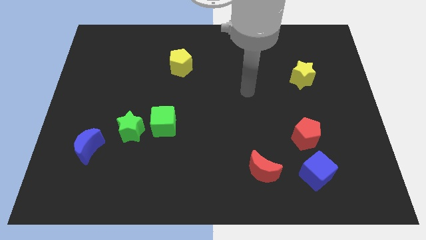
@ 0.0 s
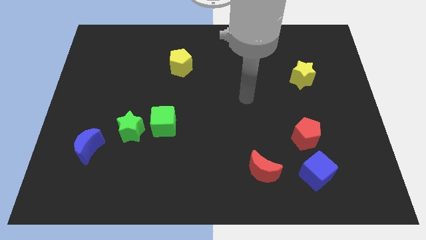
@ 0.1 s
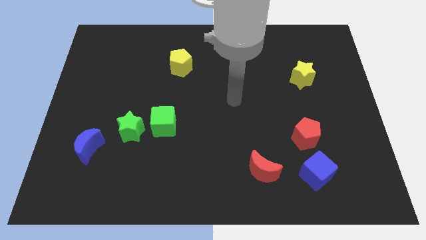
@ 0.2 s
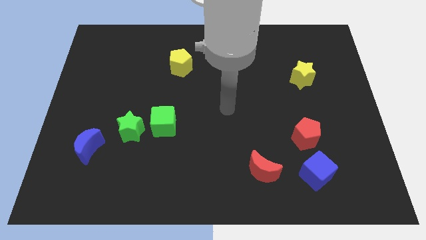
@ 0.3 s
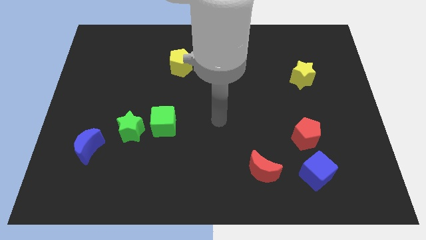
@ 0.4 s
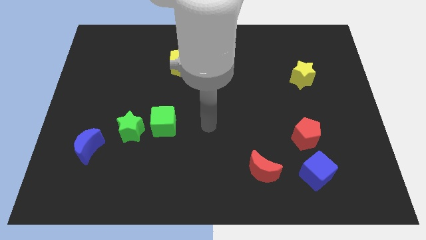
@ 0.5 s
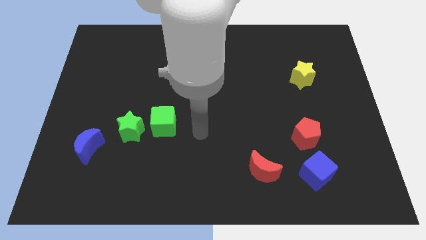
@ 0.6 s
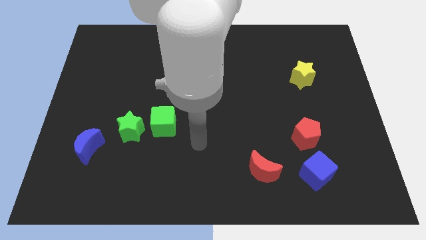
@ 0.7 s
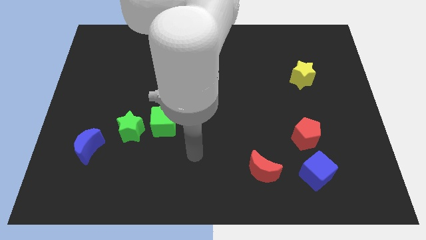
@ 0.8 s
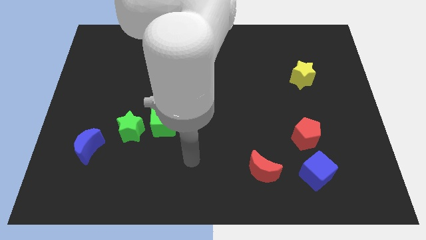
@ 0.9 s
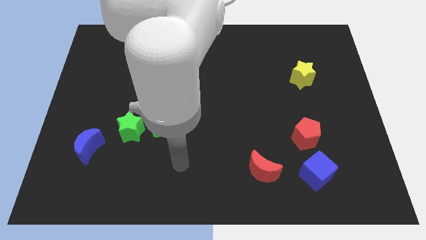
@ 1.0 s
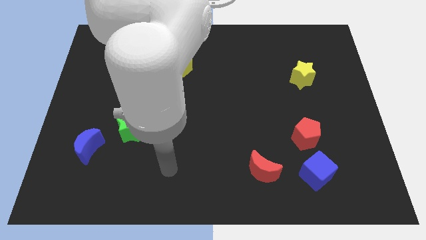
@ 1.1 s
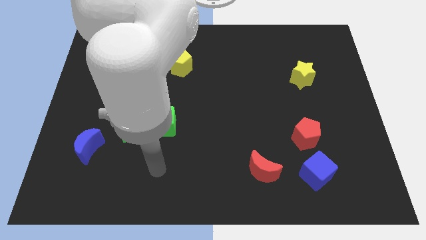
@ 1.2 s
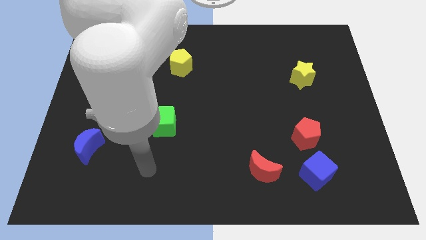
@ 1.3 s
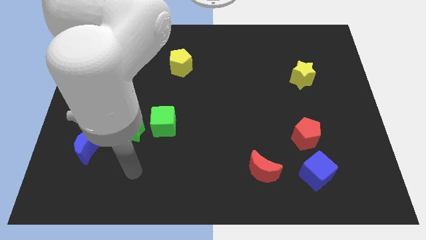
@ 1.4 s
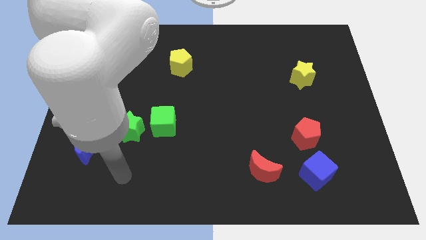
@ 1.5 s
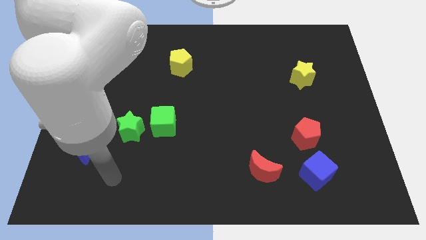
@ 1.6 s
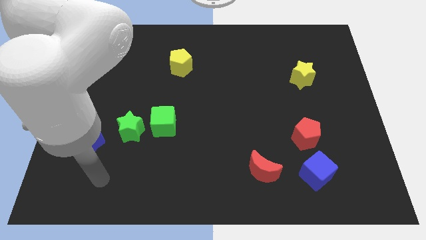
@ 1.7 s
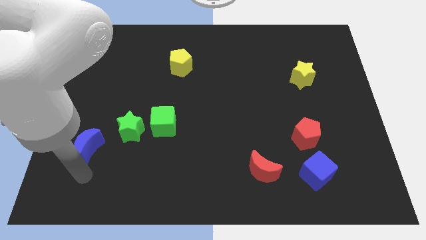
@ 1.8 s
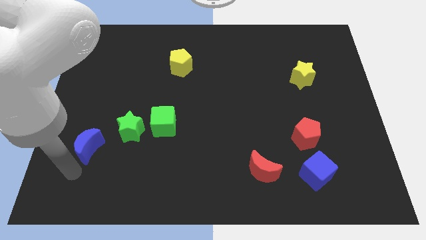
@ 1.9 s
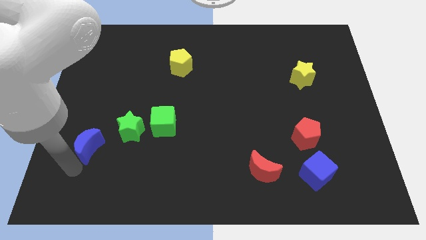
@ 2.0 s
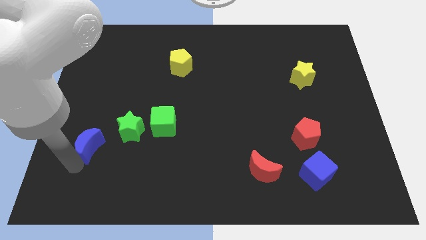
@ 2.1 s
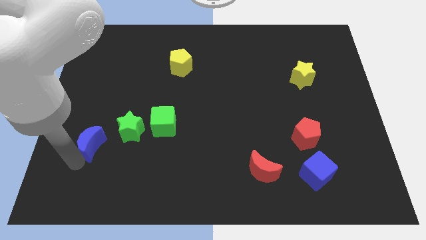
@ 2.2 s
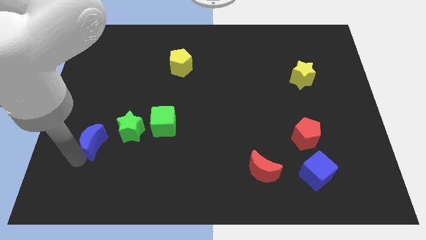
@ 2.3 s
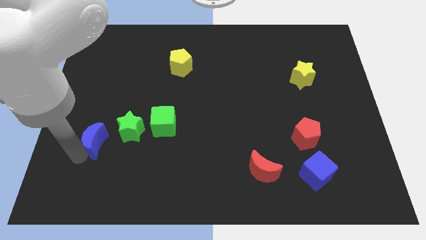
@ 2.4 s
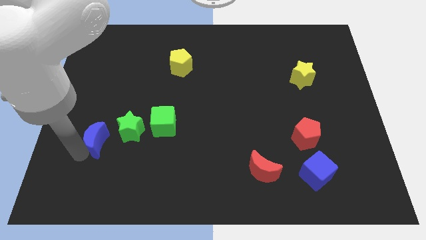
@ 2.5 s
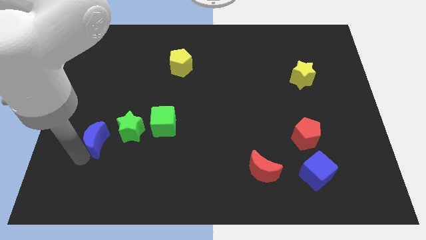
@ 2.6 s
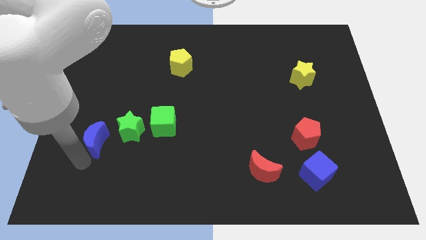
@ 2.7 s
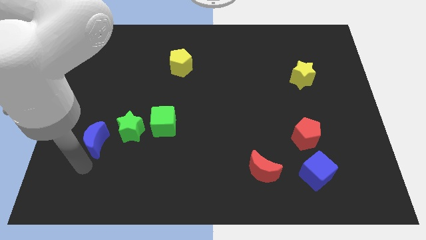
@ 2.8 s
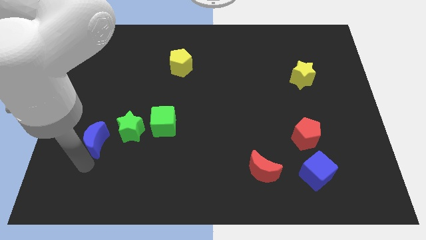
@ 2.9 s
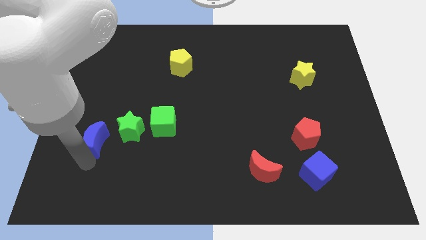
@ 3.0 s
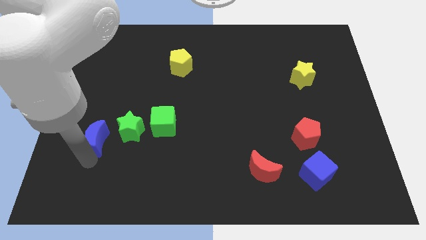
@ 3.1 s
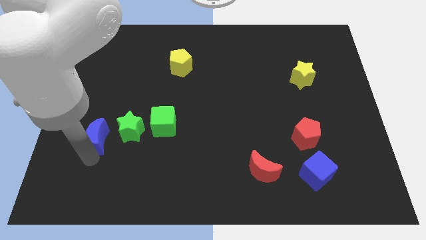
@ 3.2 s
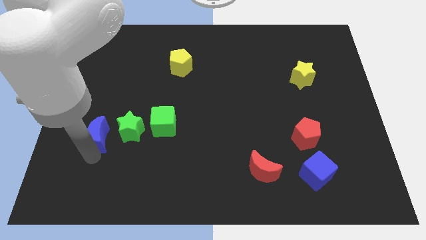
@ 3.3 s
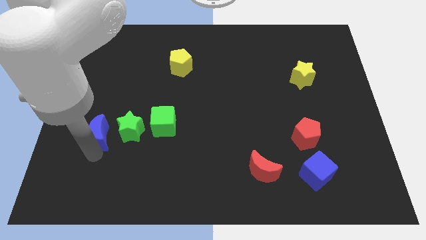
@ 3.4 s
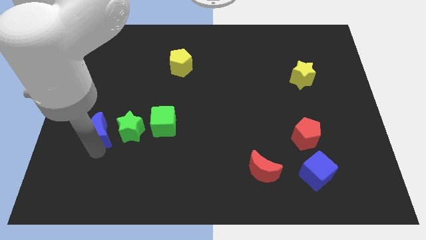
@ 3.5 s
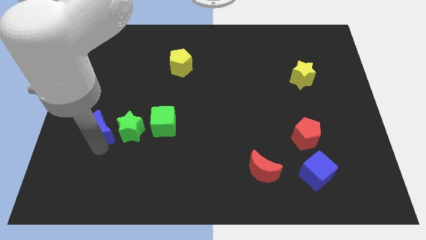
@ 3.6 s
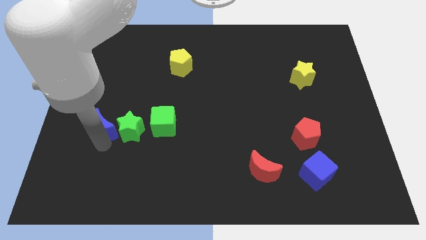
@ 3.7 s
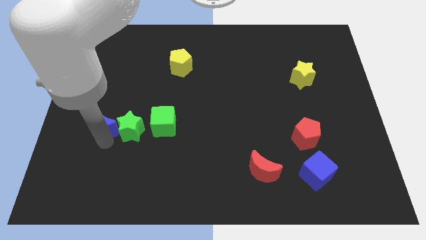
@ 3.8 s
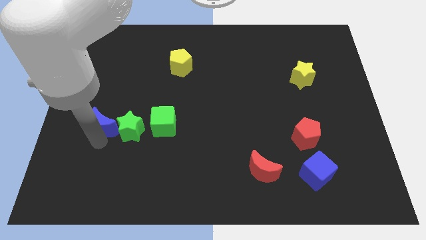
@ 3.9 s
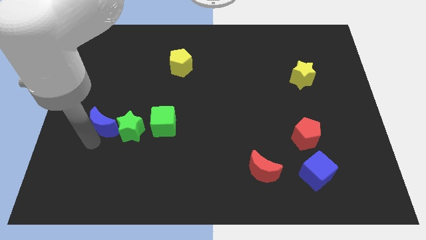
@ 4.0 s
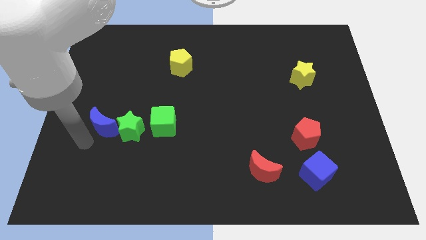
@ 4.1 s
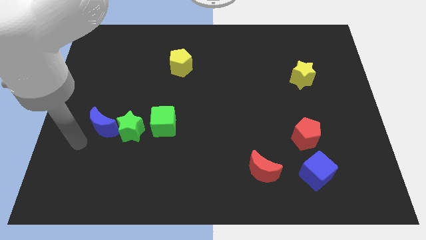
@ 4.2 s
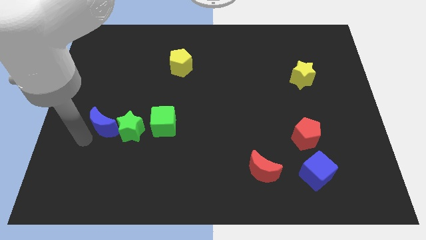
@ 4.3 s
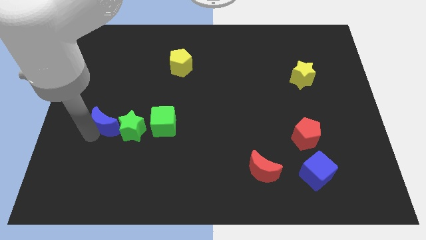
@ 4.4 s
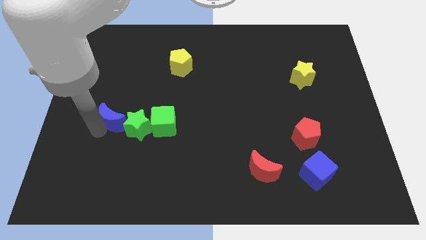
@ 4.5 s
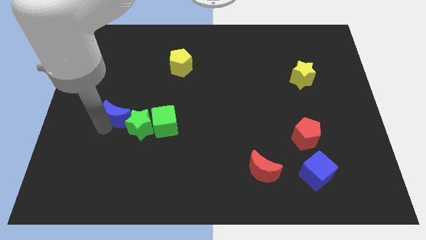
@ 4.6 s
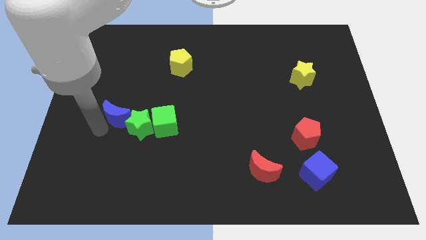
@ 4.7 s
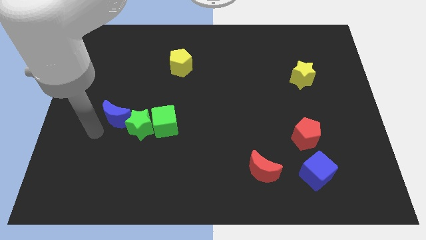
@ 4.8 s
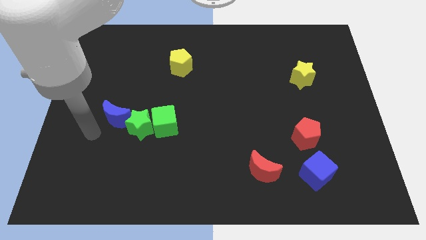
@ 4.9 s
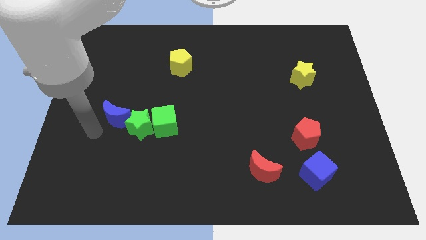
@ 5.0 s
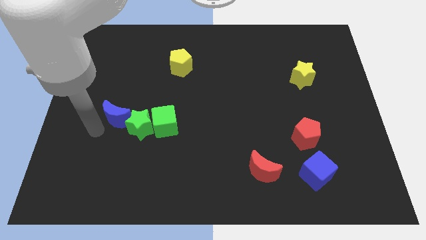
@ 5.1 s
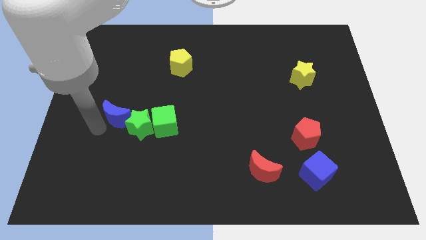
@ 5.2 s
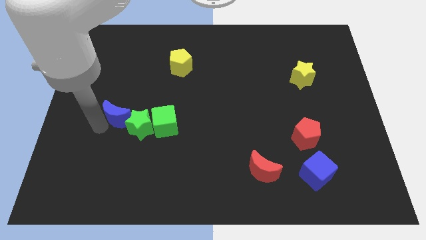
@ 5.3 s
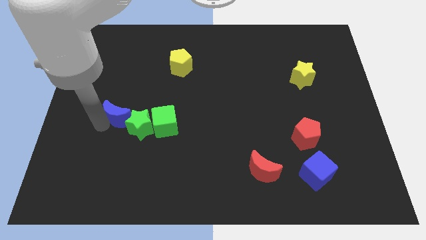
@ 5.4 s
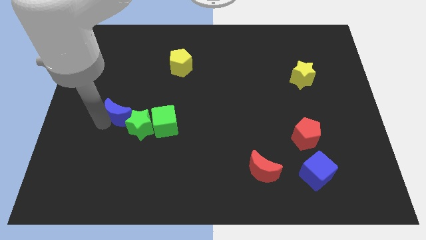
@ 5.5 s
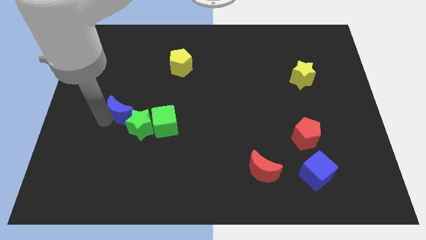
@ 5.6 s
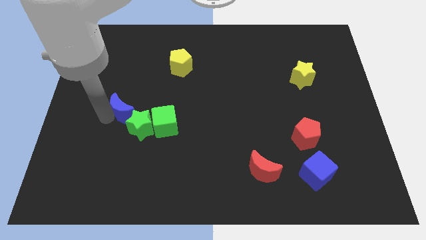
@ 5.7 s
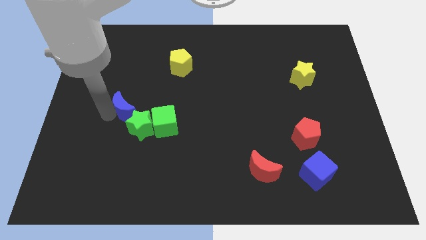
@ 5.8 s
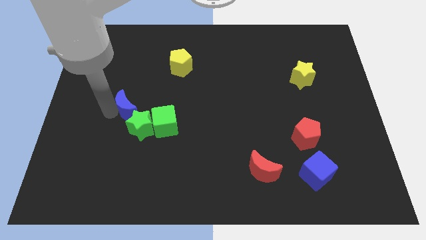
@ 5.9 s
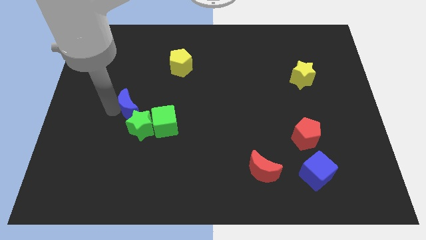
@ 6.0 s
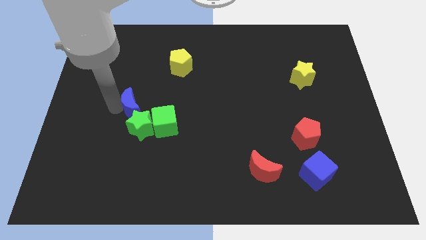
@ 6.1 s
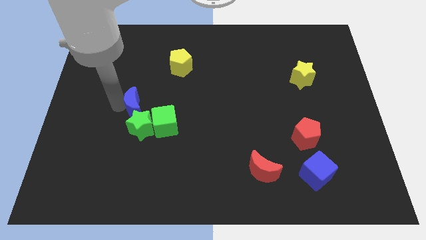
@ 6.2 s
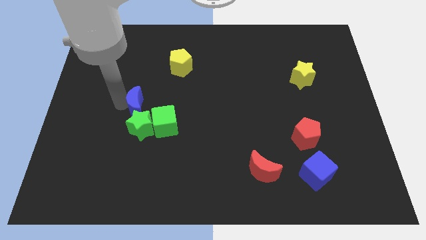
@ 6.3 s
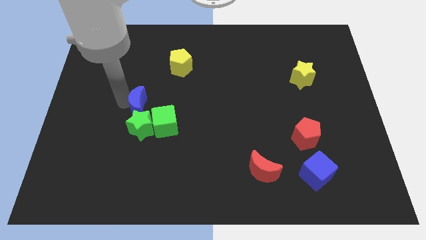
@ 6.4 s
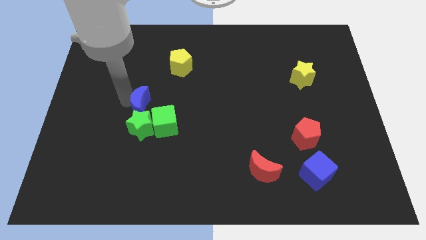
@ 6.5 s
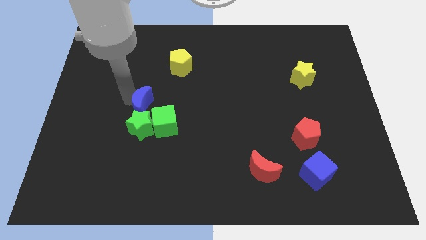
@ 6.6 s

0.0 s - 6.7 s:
slide the blue moon diagonally up and to the right of the green star
